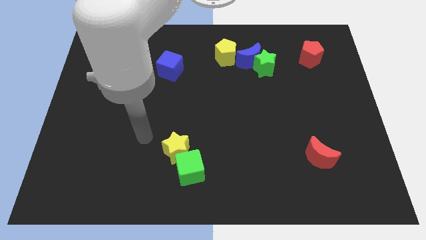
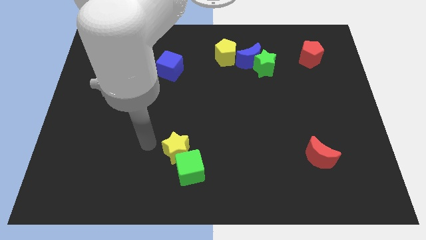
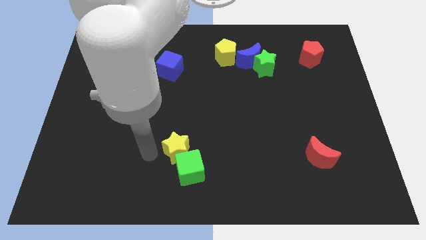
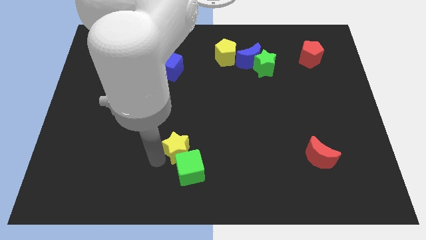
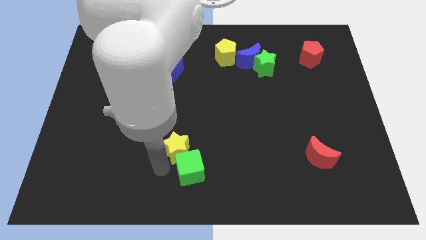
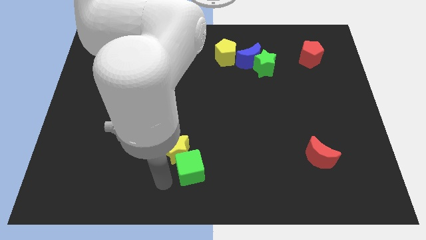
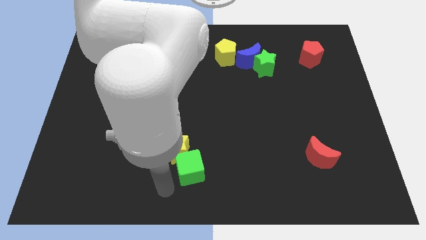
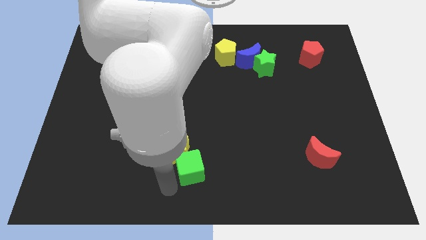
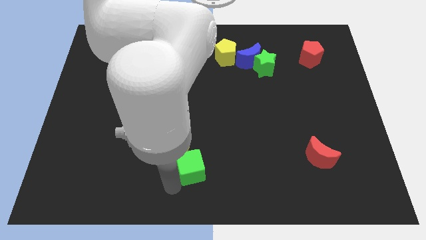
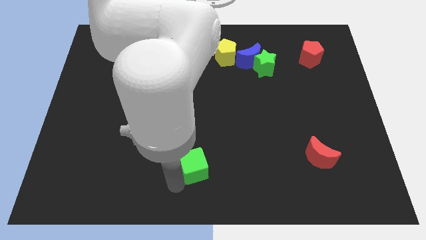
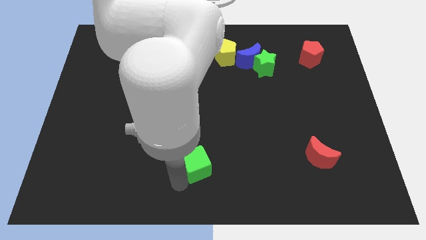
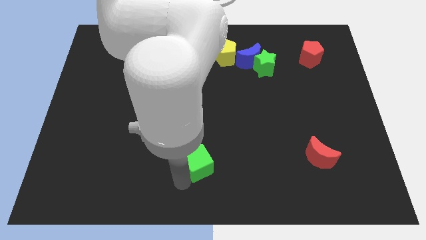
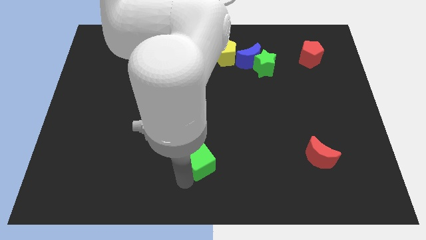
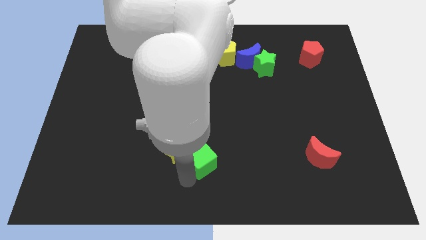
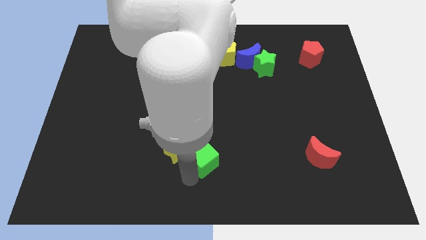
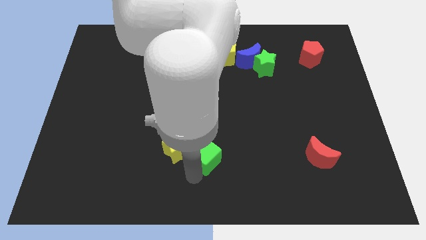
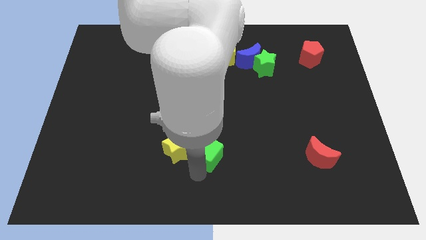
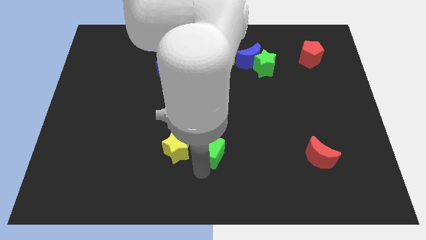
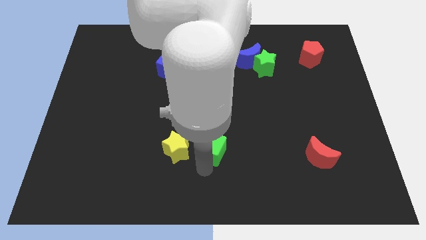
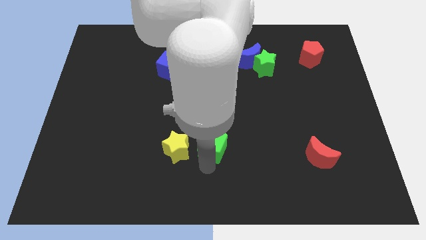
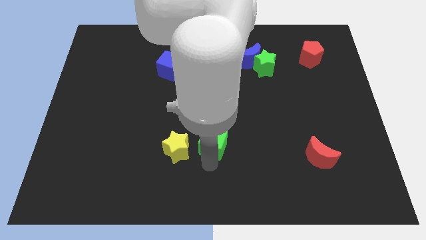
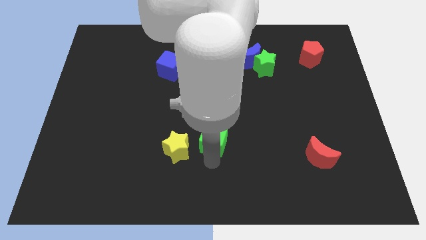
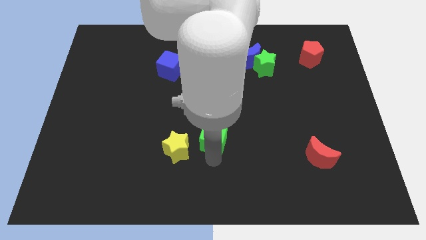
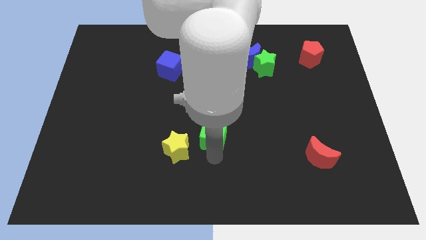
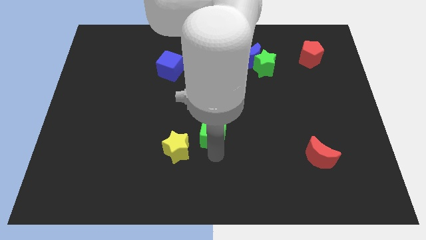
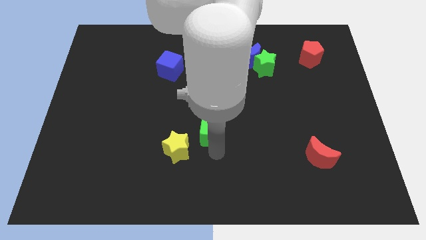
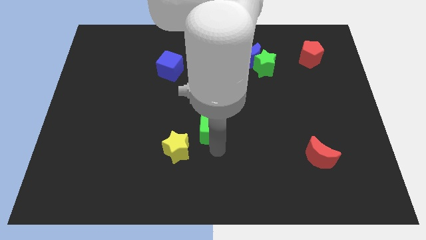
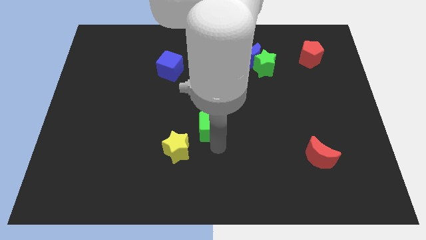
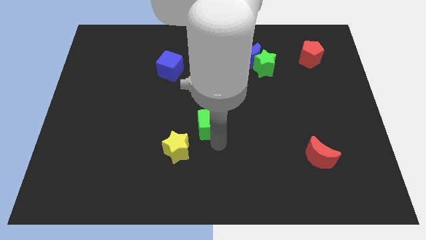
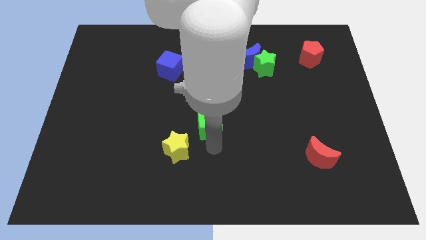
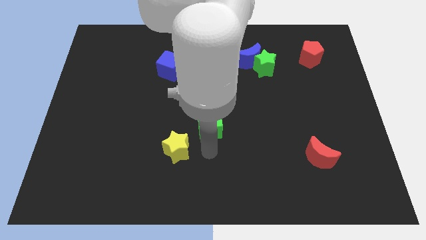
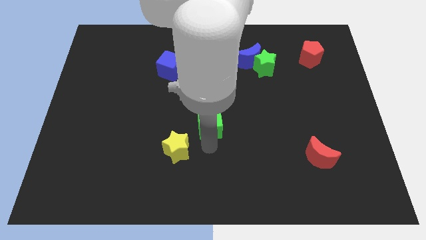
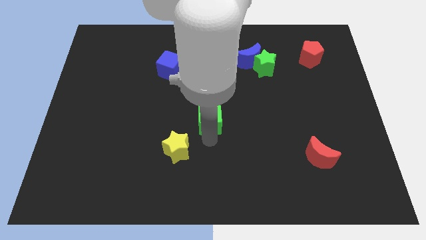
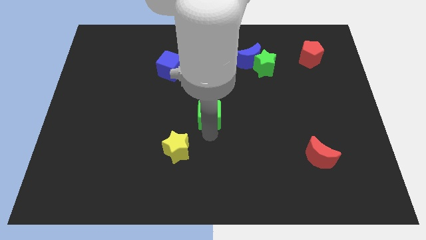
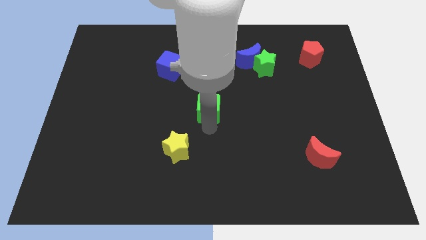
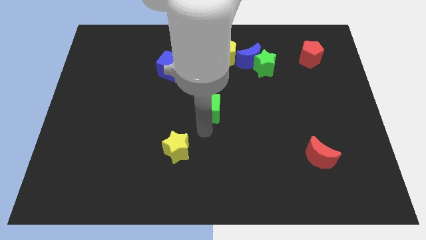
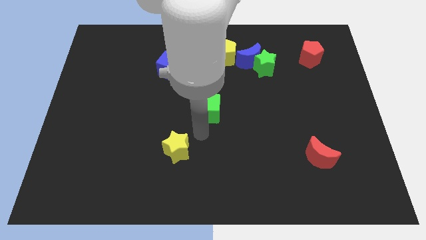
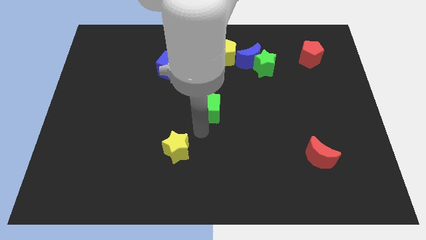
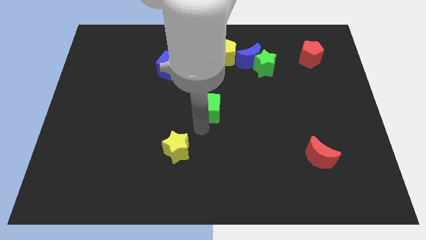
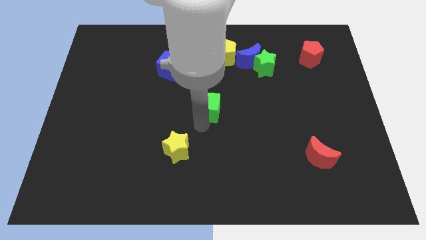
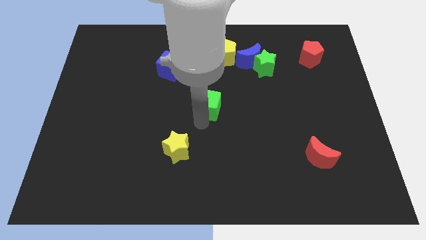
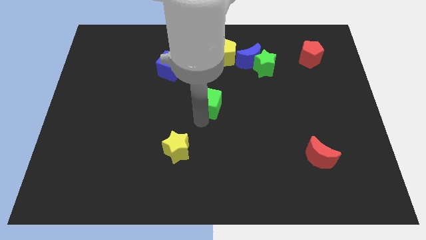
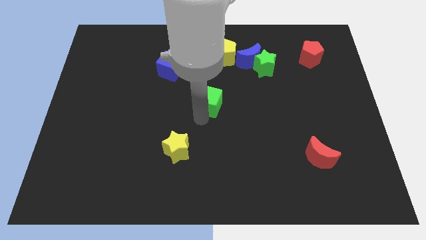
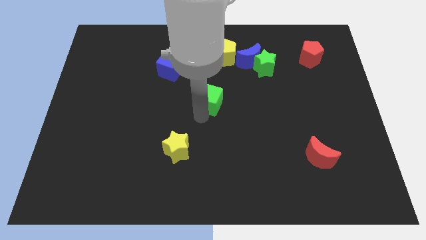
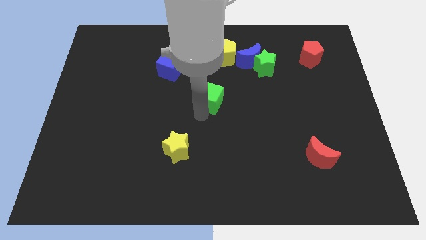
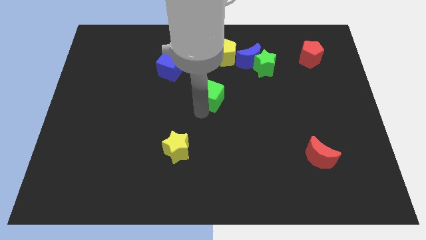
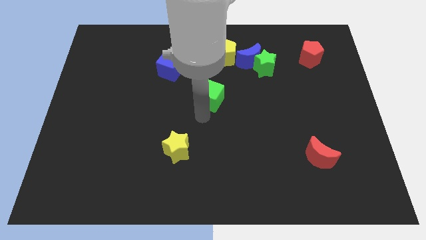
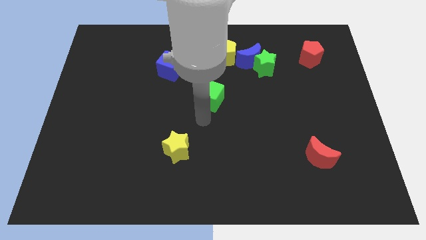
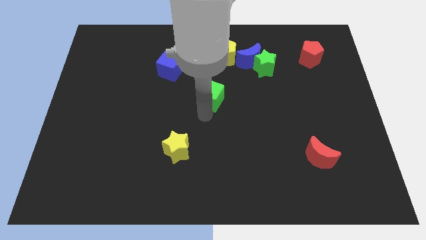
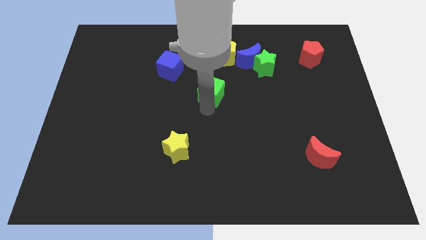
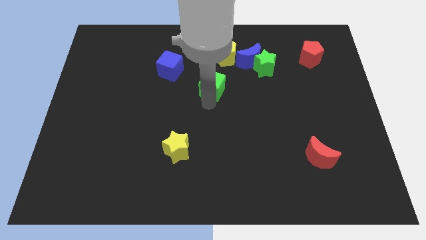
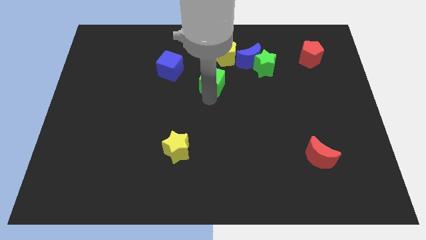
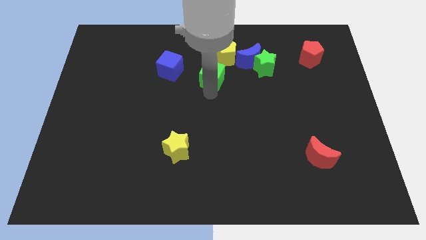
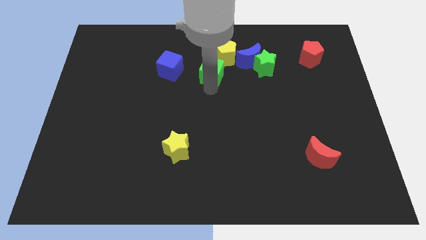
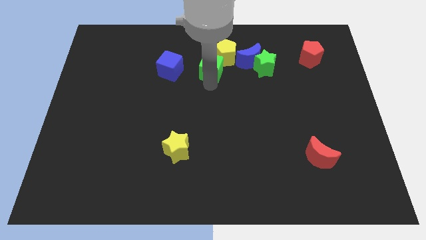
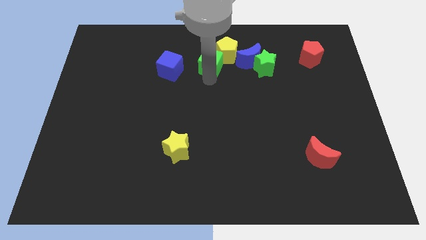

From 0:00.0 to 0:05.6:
slide the green cube next to the yellow pentagon

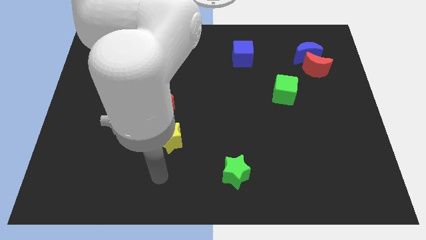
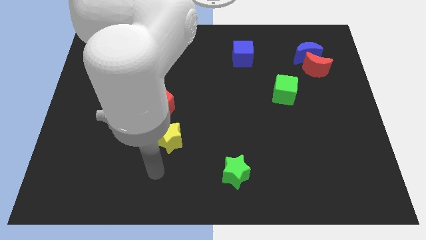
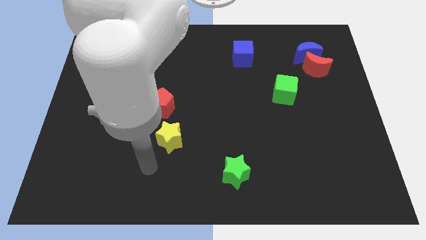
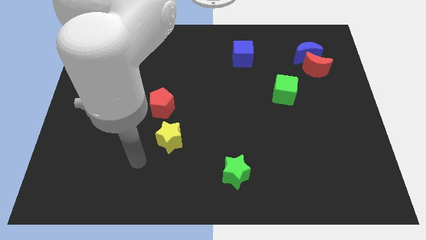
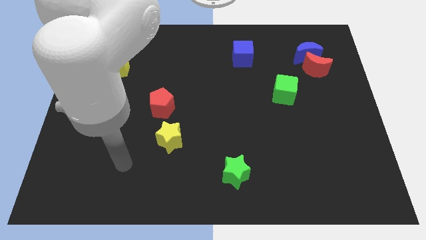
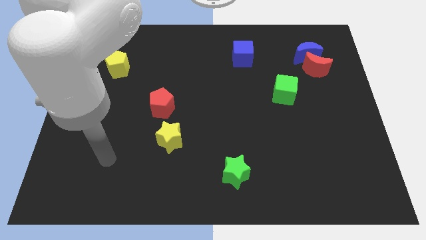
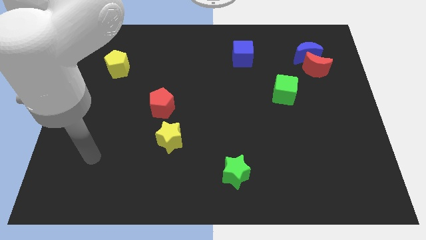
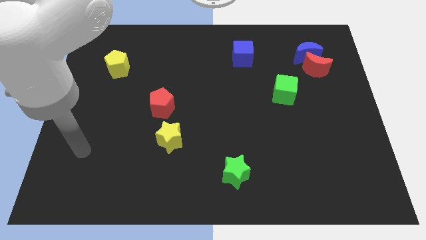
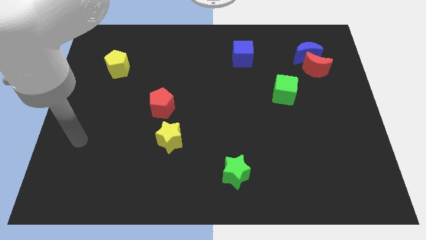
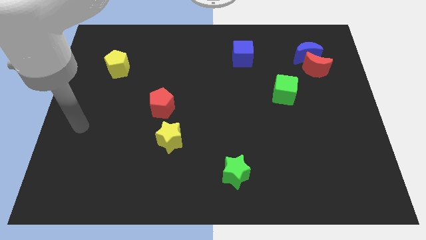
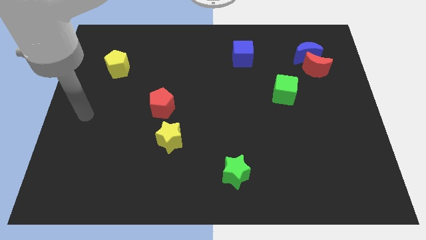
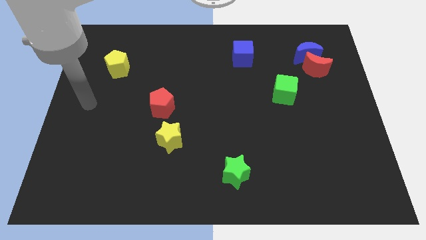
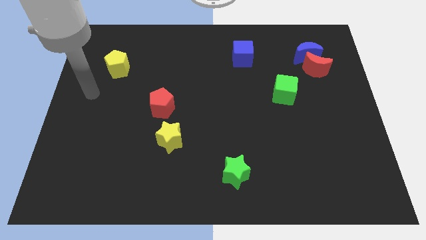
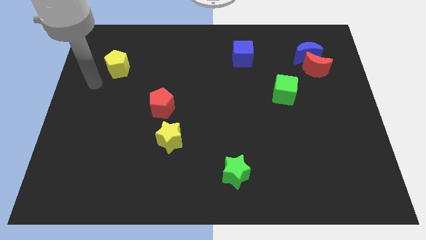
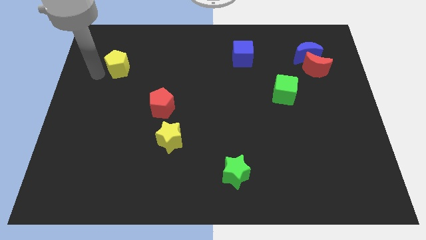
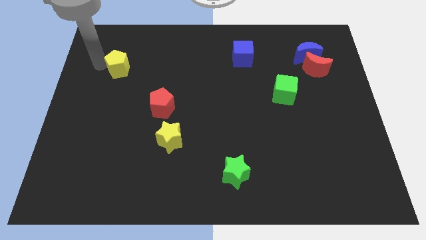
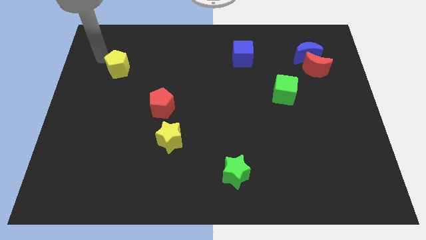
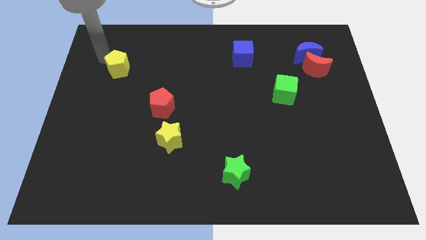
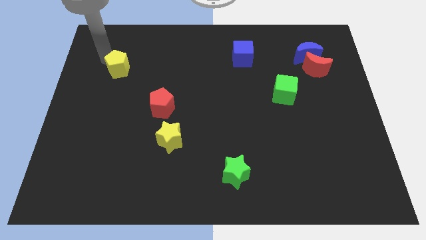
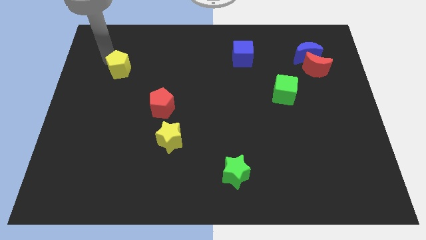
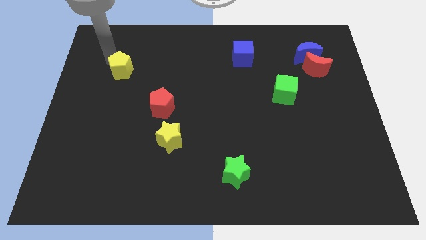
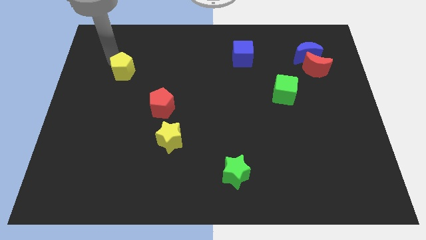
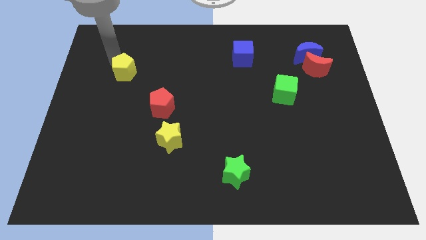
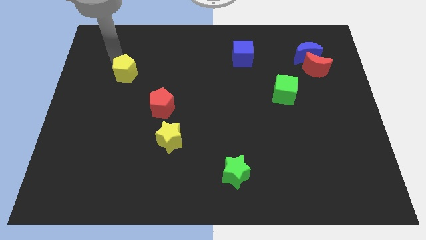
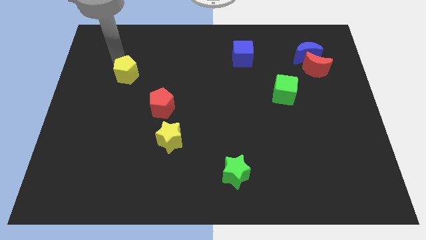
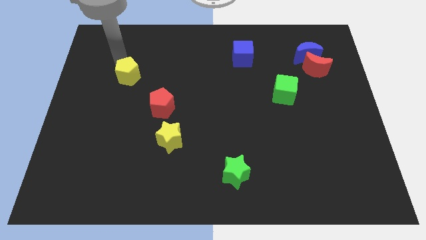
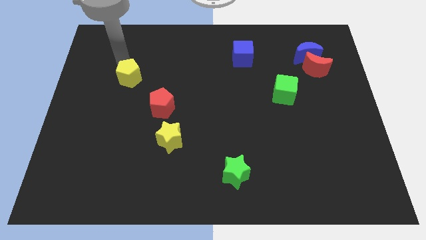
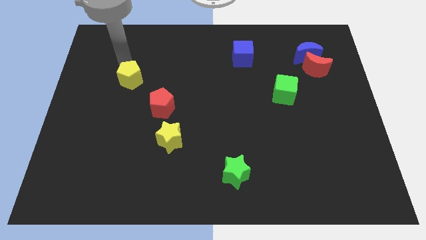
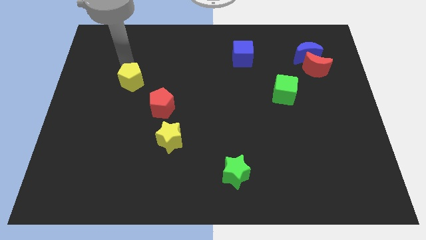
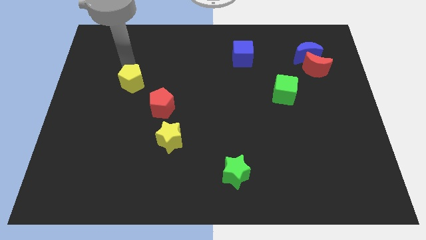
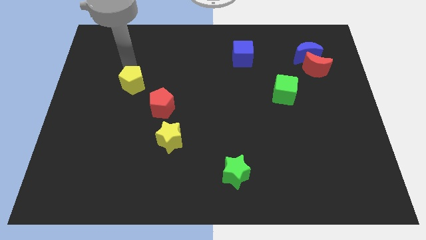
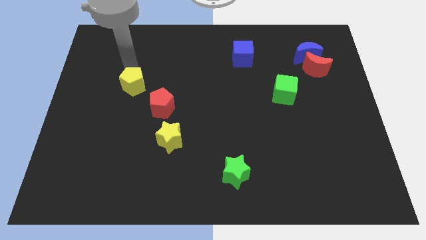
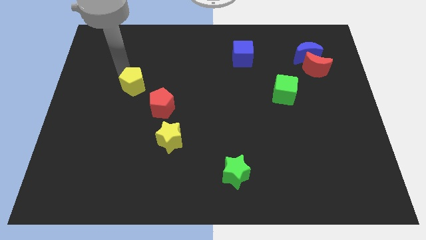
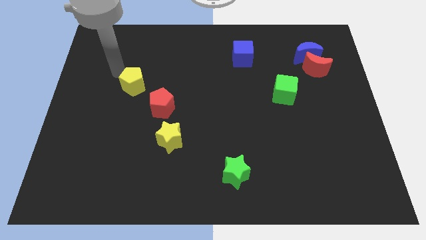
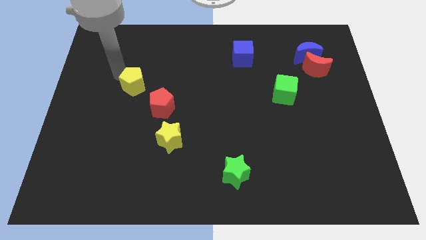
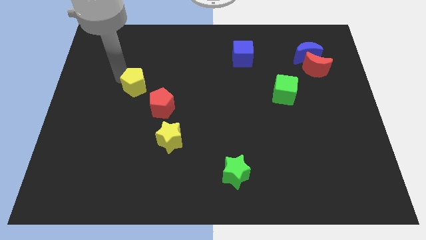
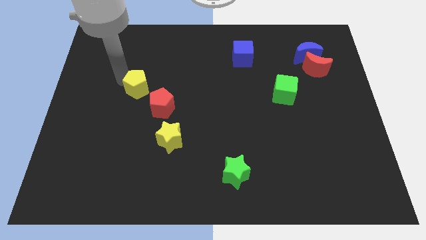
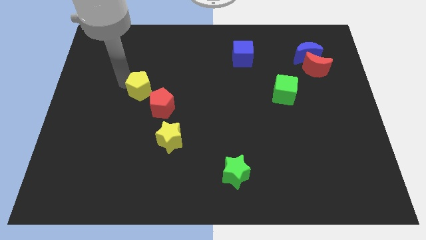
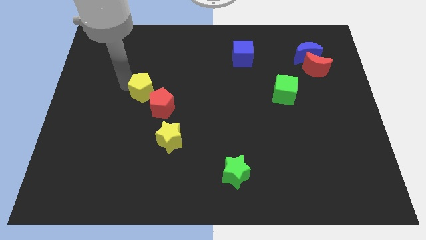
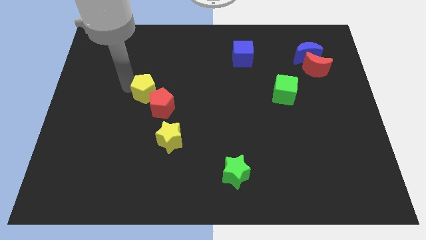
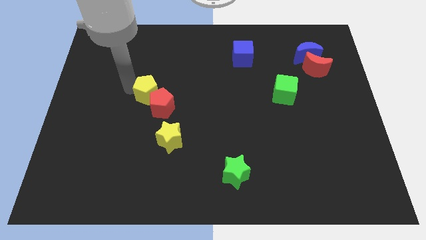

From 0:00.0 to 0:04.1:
move the yellow pentagon to the red pentagon
